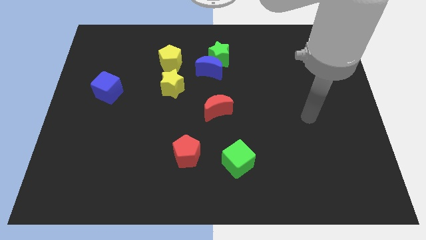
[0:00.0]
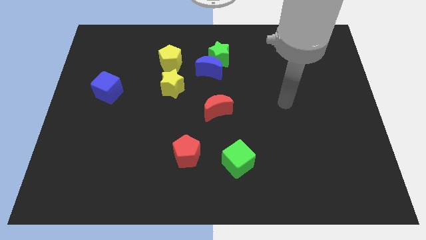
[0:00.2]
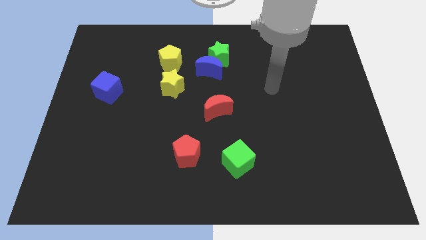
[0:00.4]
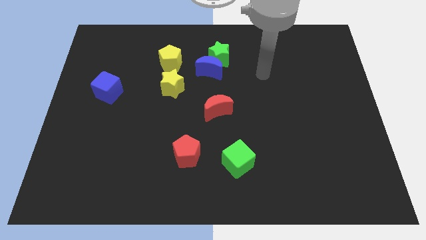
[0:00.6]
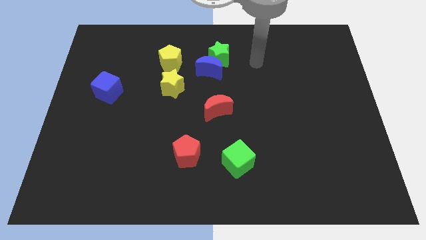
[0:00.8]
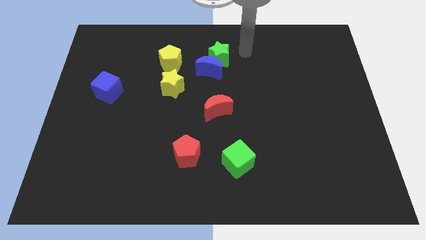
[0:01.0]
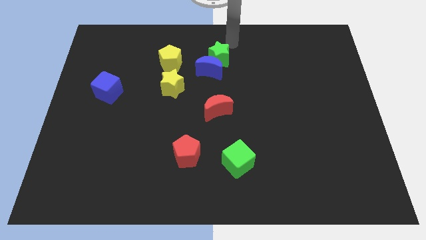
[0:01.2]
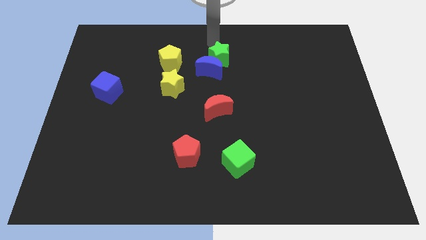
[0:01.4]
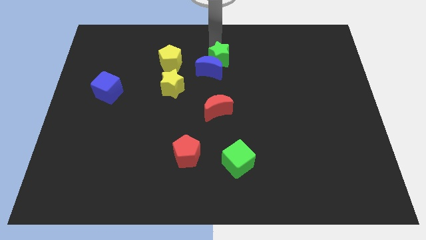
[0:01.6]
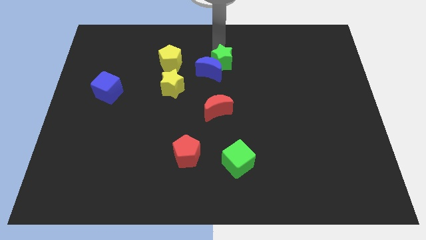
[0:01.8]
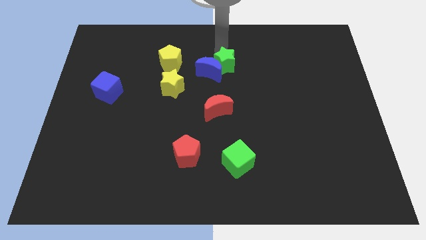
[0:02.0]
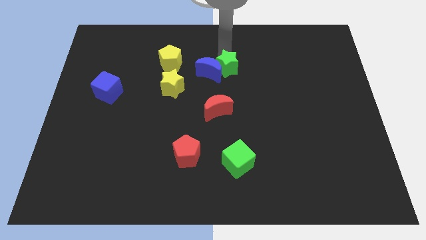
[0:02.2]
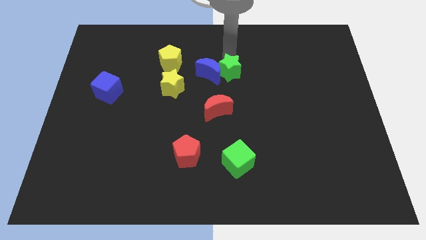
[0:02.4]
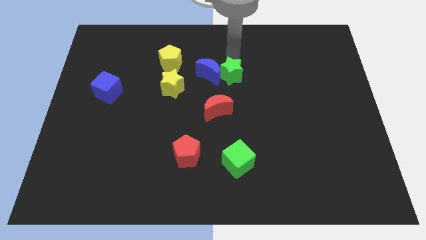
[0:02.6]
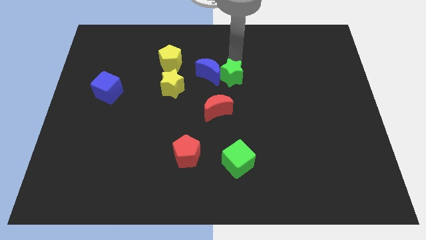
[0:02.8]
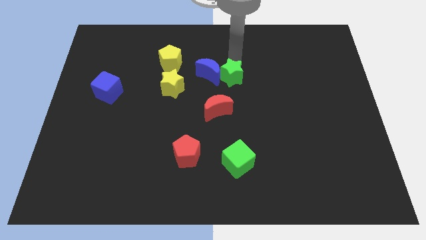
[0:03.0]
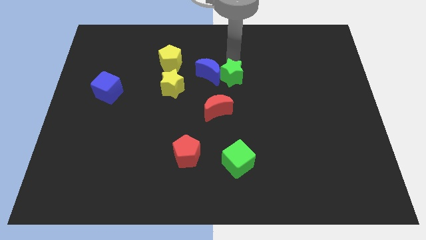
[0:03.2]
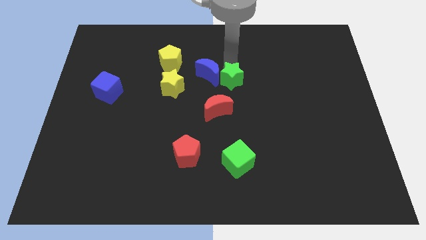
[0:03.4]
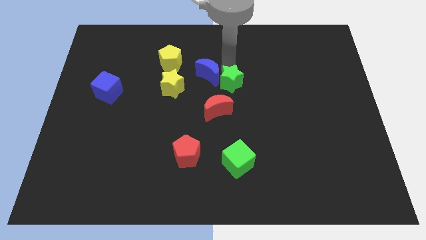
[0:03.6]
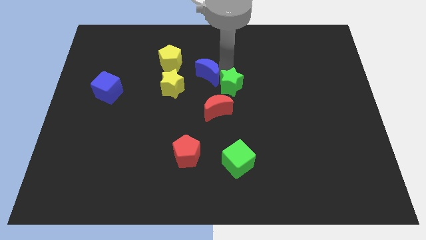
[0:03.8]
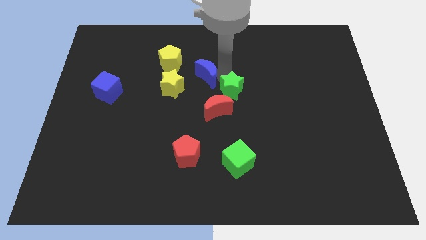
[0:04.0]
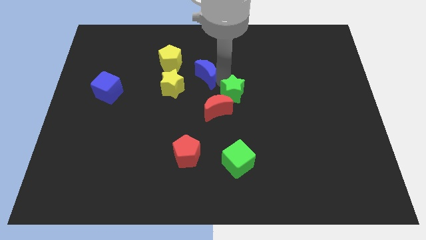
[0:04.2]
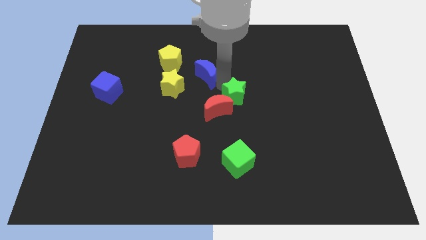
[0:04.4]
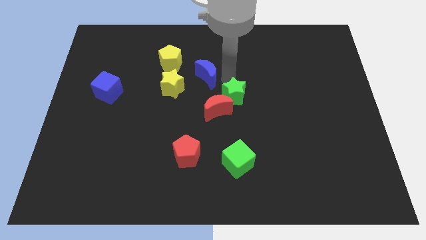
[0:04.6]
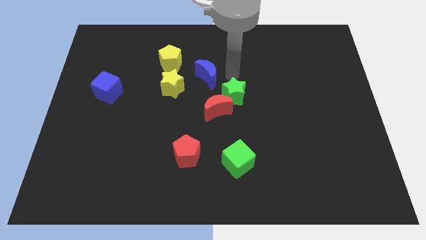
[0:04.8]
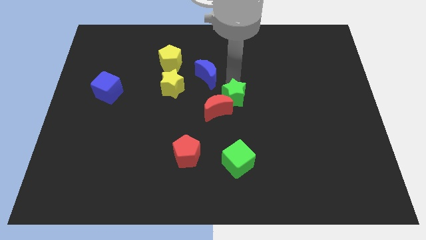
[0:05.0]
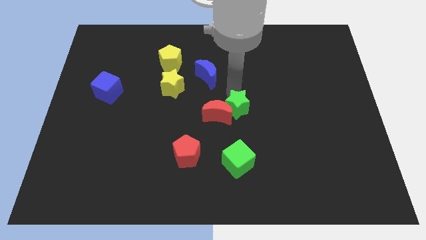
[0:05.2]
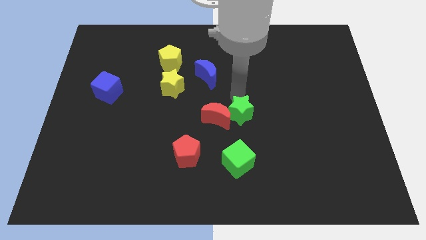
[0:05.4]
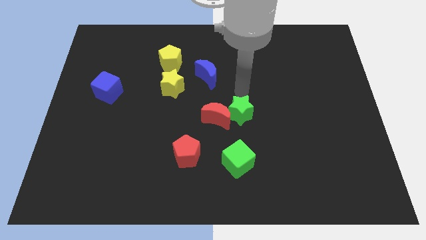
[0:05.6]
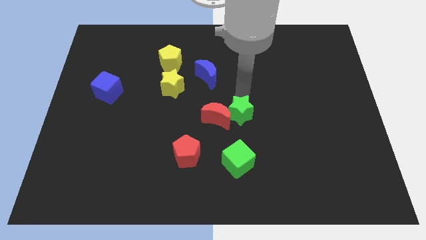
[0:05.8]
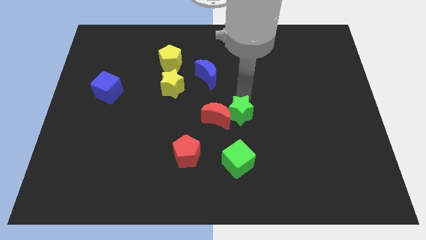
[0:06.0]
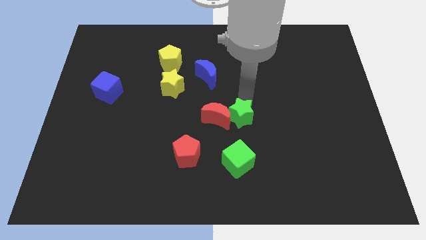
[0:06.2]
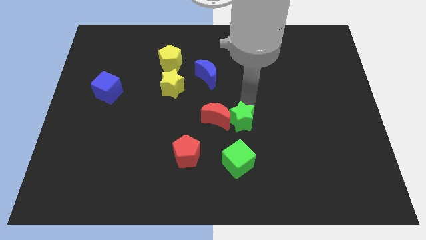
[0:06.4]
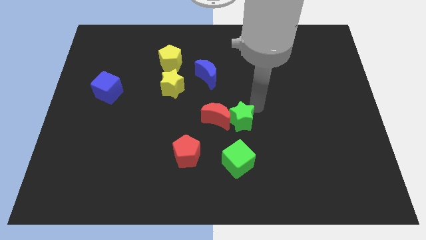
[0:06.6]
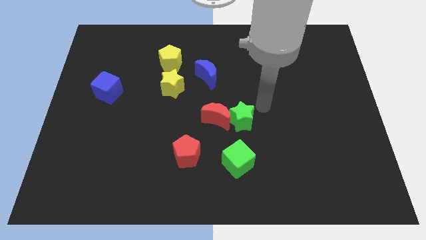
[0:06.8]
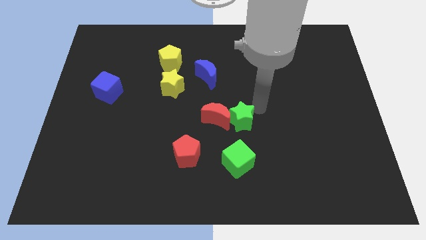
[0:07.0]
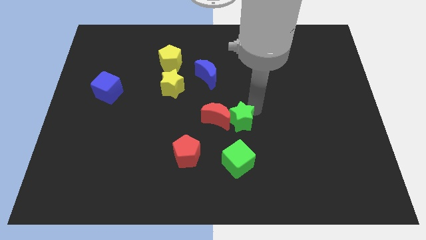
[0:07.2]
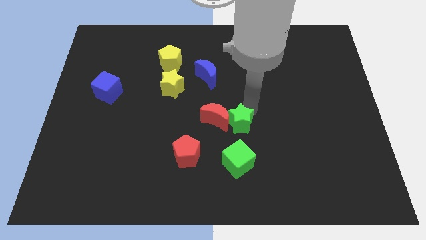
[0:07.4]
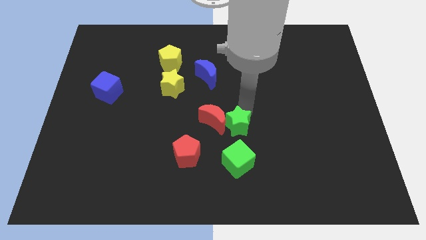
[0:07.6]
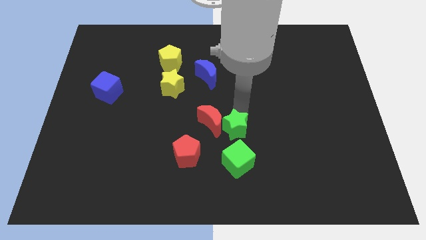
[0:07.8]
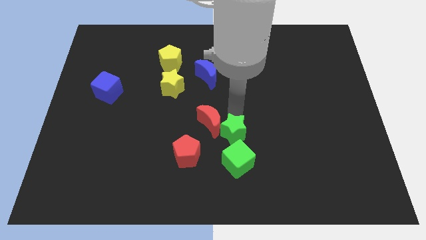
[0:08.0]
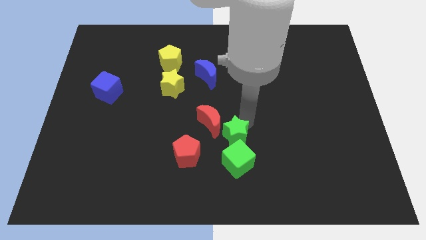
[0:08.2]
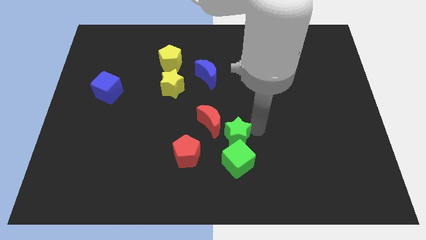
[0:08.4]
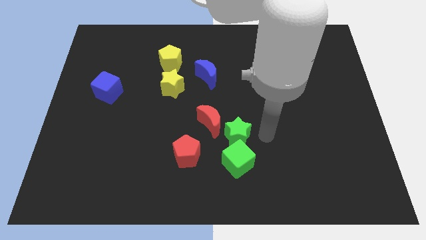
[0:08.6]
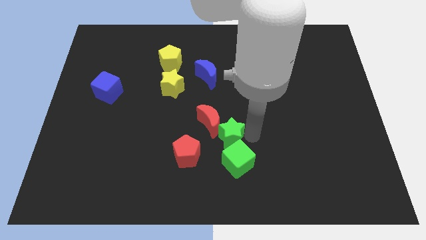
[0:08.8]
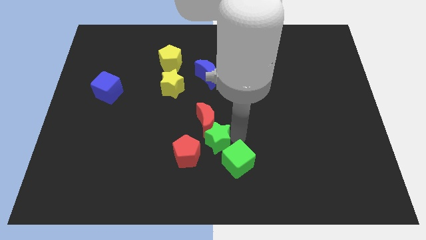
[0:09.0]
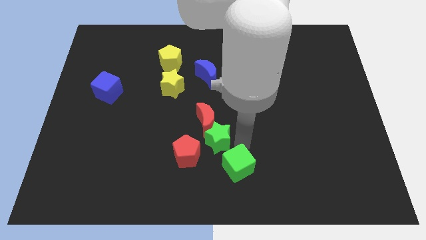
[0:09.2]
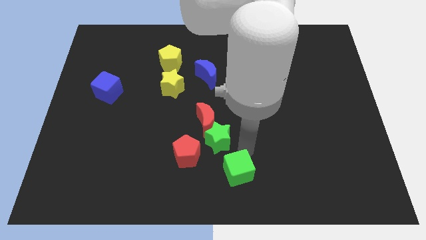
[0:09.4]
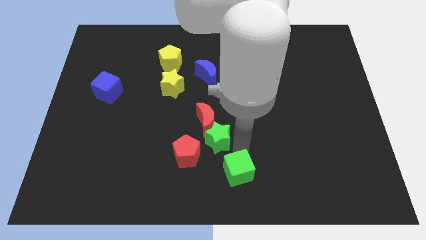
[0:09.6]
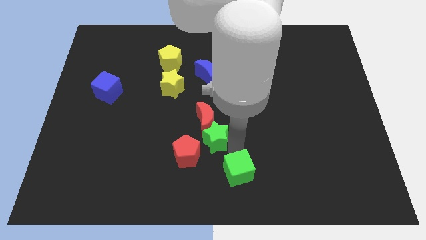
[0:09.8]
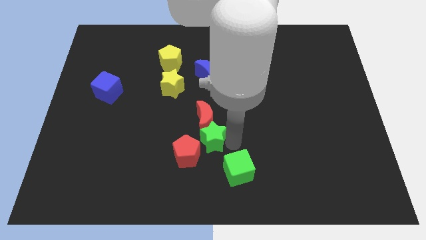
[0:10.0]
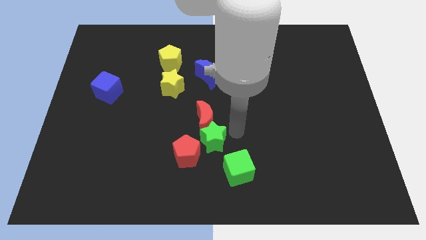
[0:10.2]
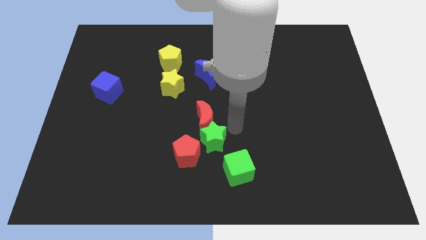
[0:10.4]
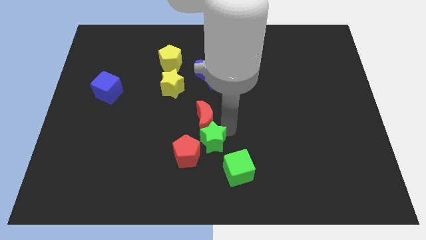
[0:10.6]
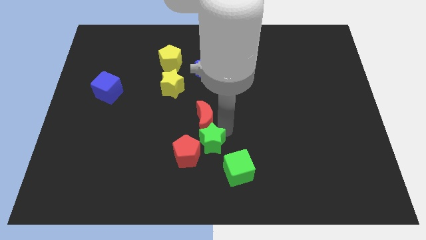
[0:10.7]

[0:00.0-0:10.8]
push the green star to the red pentagon

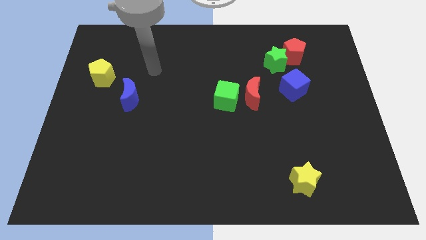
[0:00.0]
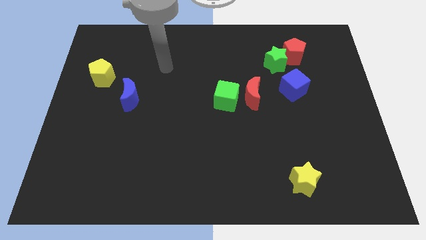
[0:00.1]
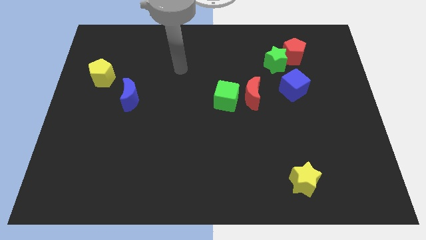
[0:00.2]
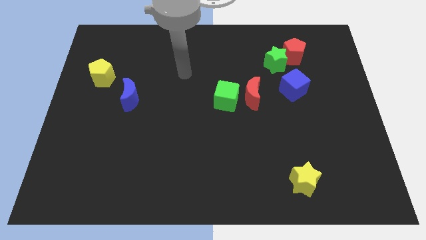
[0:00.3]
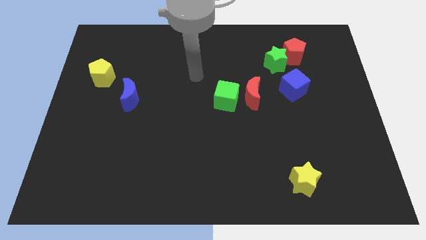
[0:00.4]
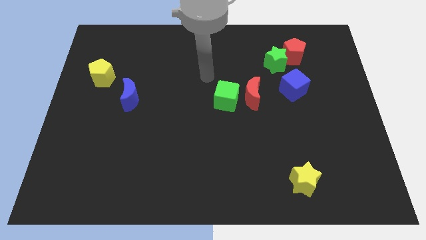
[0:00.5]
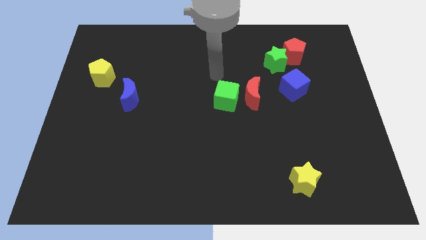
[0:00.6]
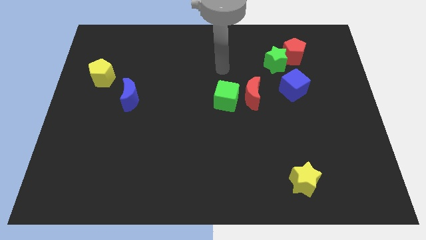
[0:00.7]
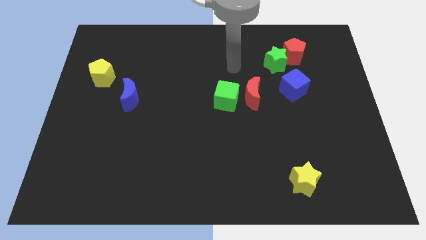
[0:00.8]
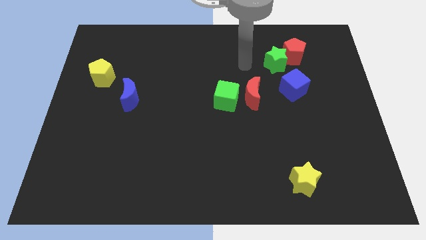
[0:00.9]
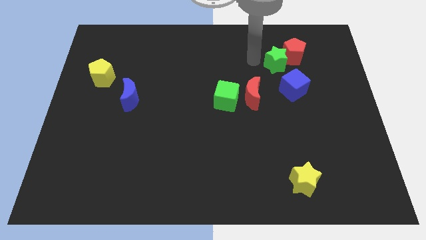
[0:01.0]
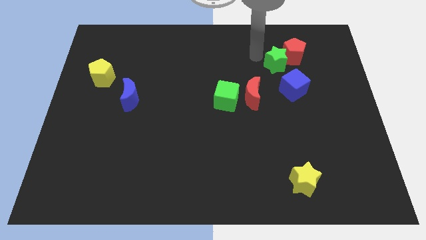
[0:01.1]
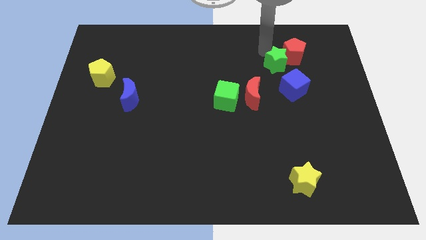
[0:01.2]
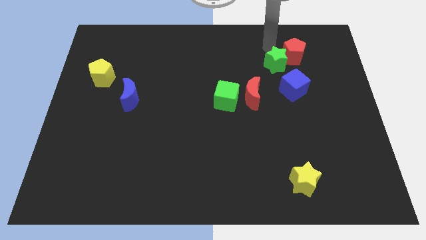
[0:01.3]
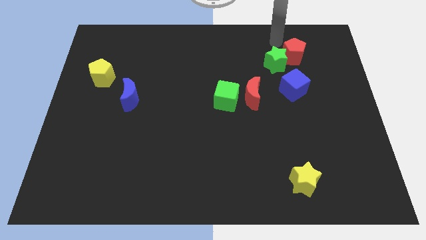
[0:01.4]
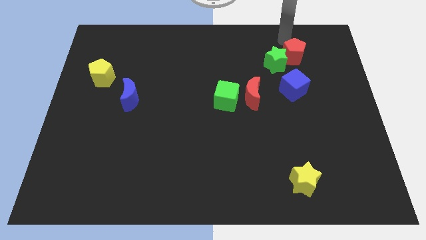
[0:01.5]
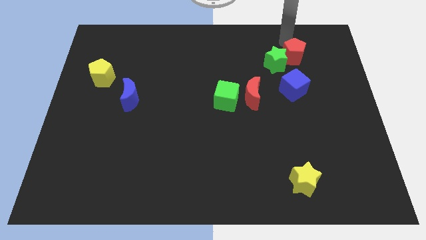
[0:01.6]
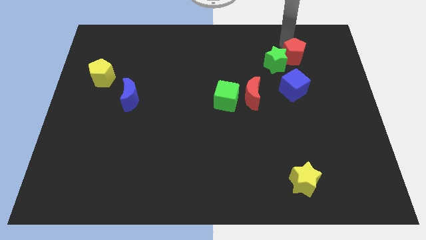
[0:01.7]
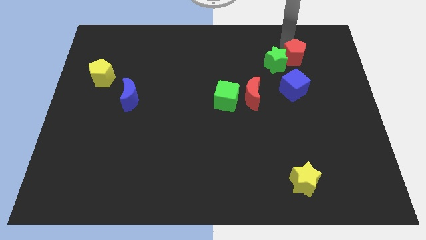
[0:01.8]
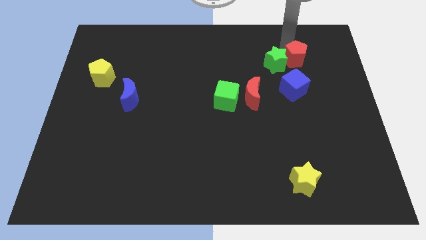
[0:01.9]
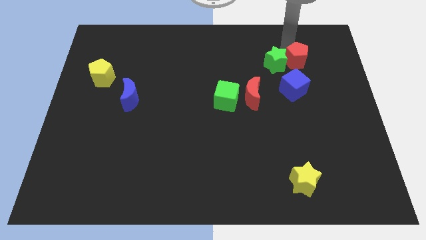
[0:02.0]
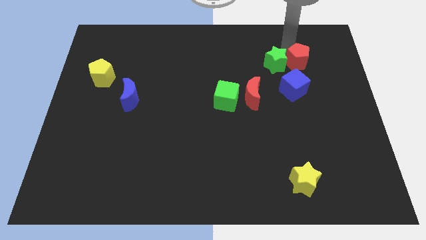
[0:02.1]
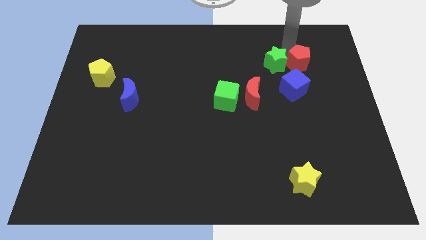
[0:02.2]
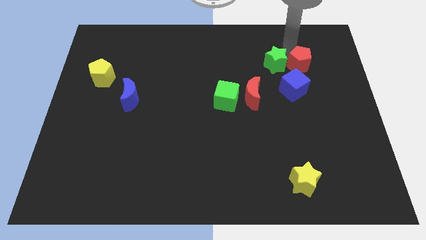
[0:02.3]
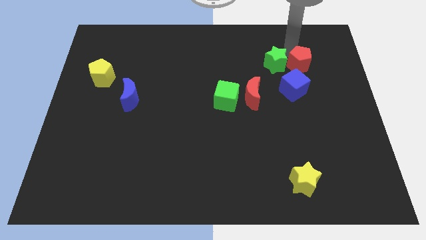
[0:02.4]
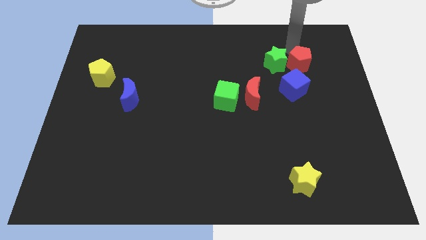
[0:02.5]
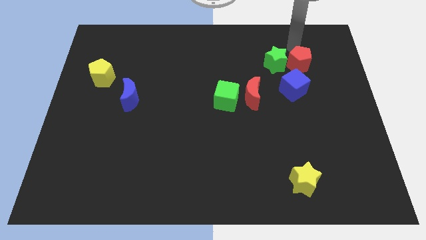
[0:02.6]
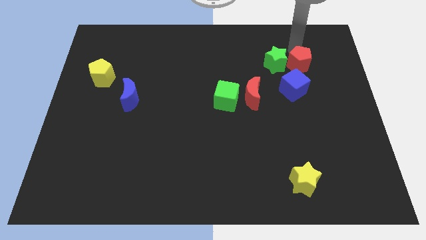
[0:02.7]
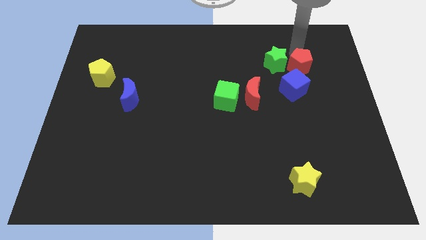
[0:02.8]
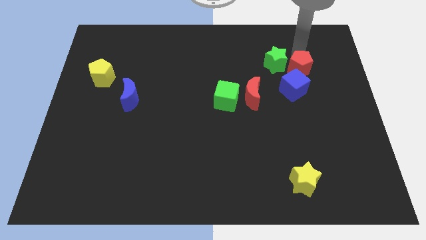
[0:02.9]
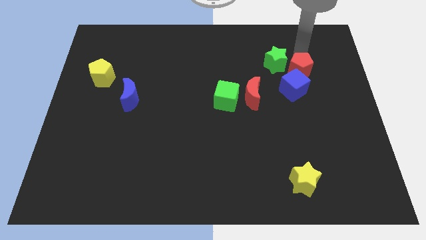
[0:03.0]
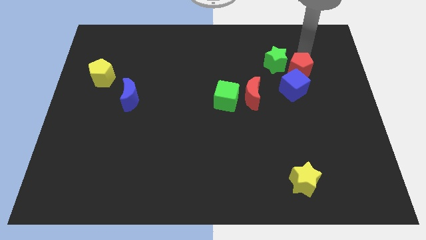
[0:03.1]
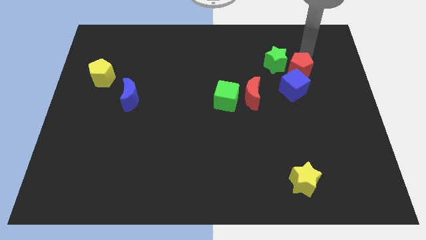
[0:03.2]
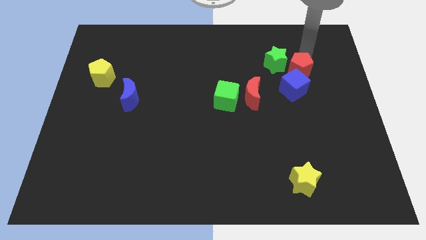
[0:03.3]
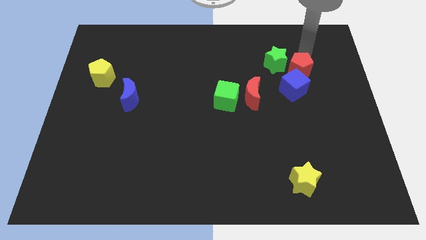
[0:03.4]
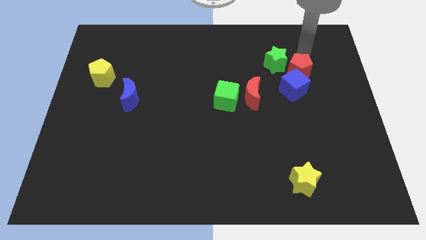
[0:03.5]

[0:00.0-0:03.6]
push the red pentagon next to the blue cube
